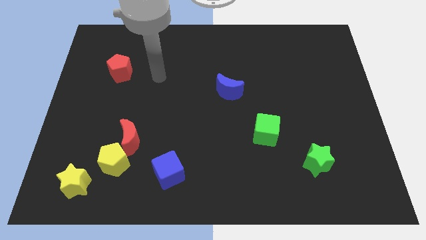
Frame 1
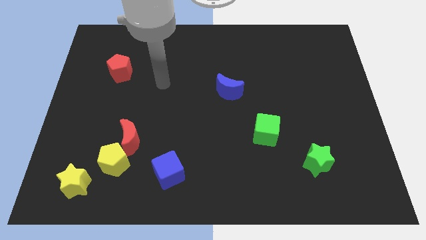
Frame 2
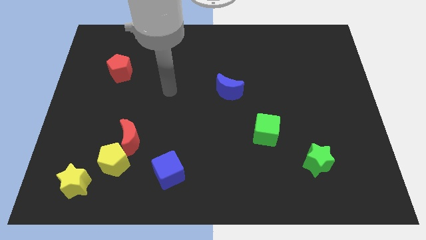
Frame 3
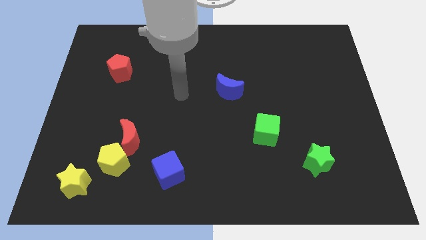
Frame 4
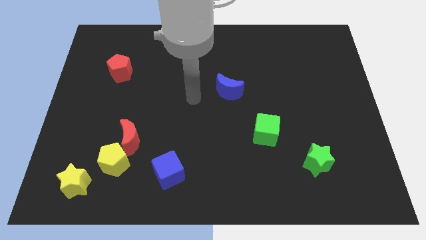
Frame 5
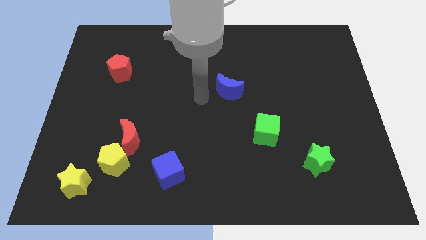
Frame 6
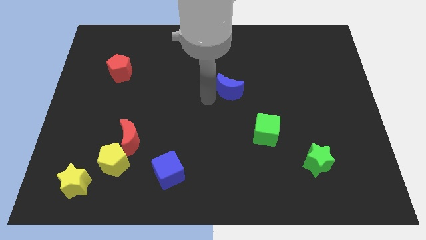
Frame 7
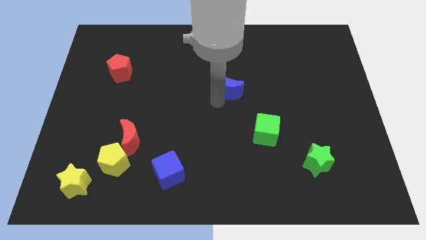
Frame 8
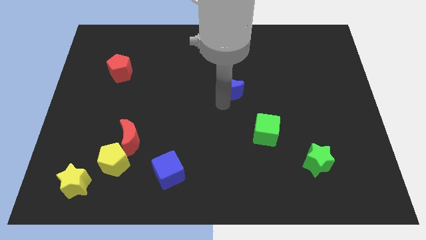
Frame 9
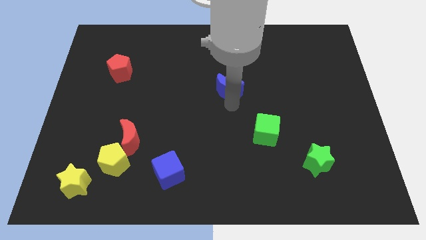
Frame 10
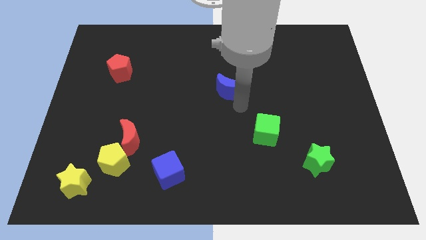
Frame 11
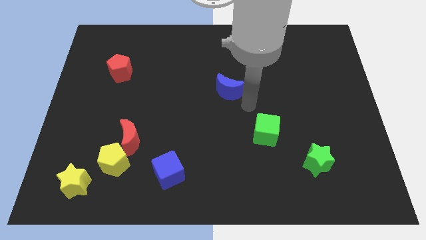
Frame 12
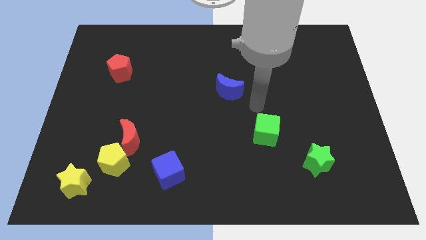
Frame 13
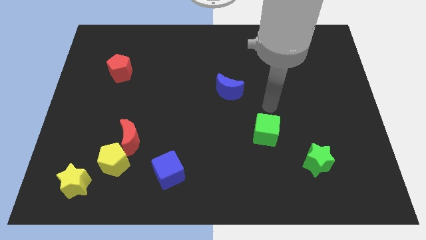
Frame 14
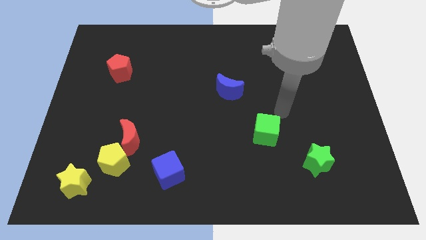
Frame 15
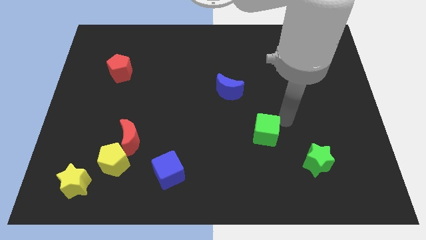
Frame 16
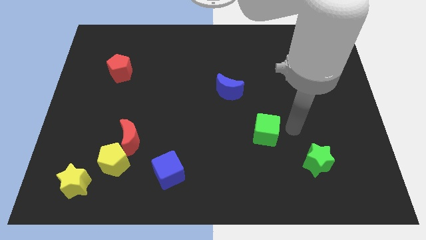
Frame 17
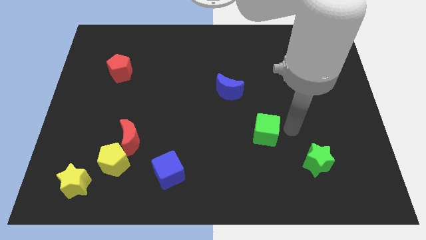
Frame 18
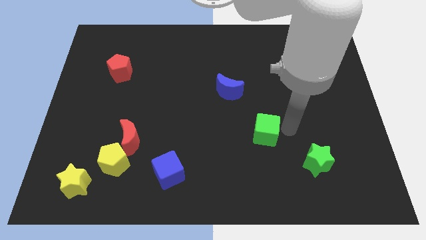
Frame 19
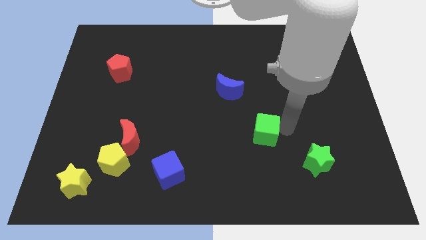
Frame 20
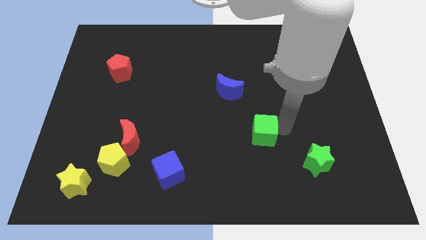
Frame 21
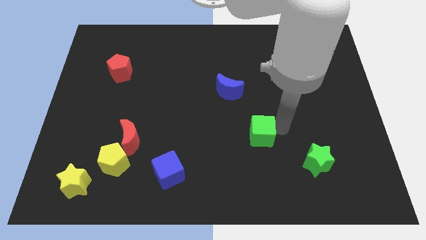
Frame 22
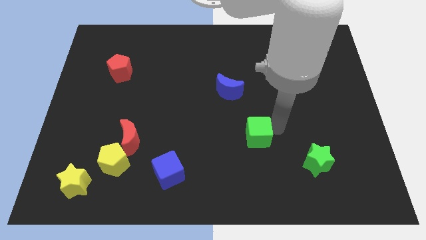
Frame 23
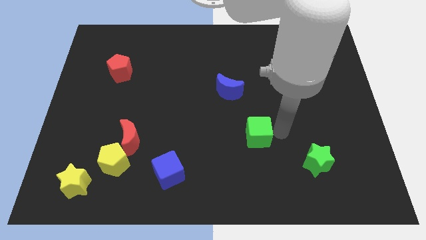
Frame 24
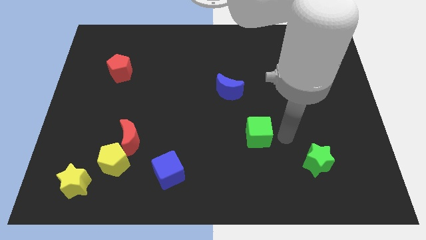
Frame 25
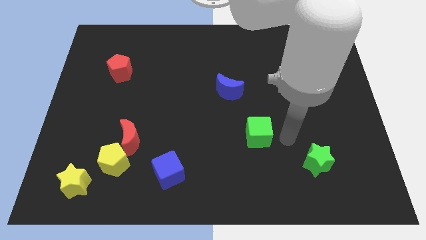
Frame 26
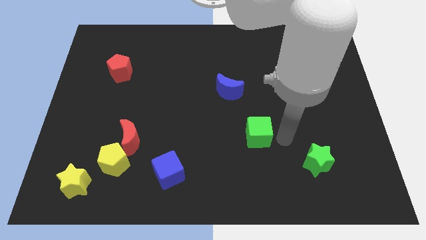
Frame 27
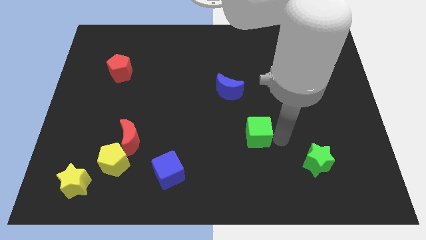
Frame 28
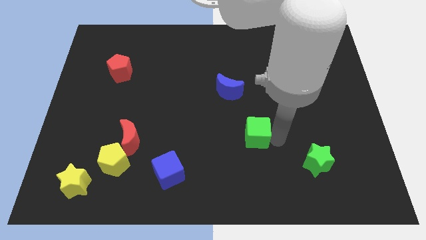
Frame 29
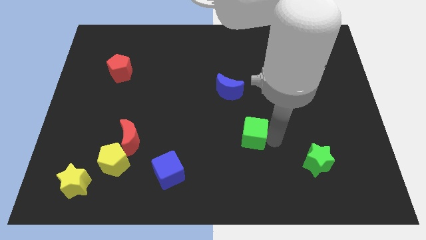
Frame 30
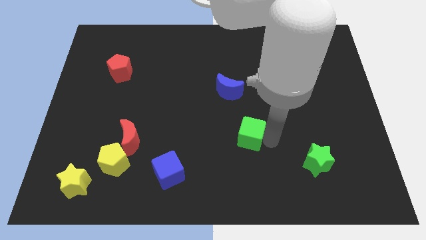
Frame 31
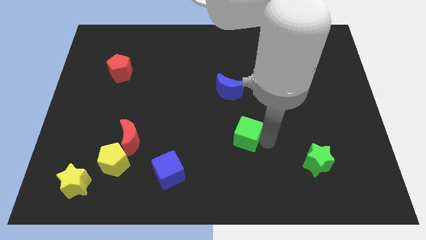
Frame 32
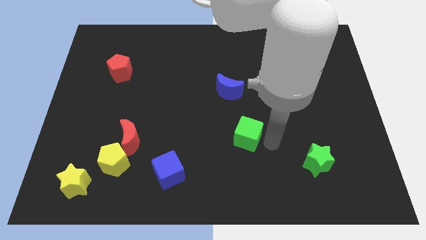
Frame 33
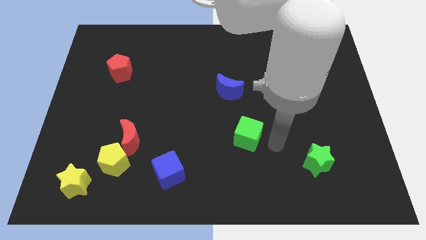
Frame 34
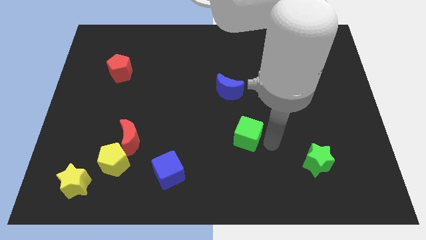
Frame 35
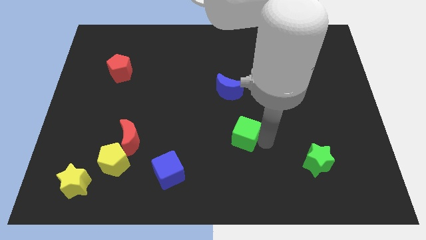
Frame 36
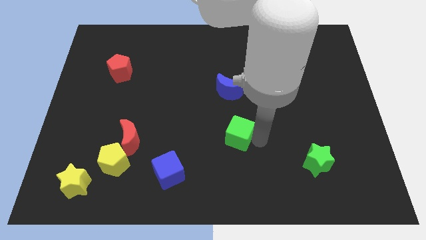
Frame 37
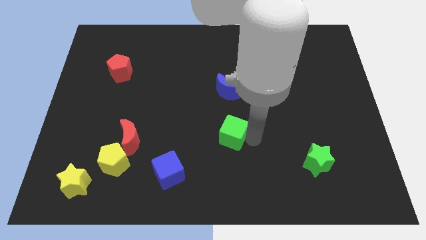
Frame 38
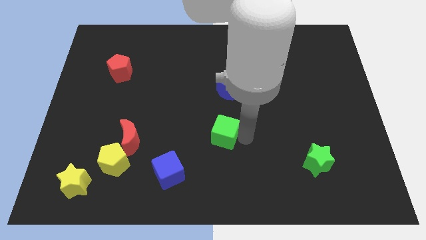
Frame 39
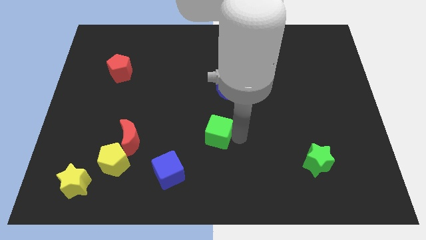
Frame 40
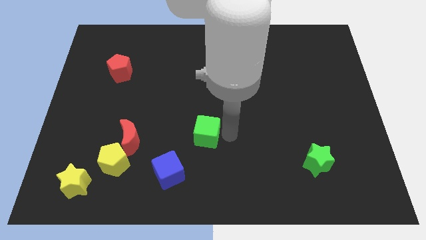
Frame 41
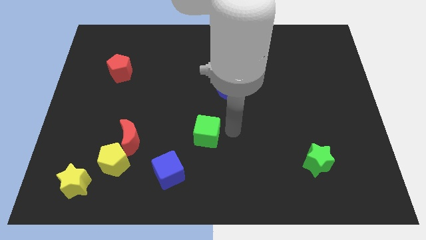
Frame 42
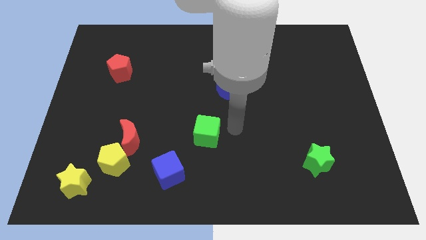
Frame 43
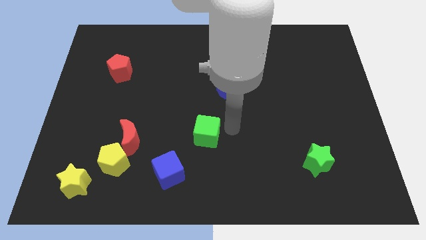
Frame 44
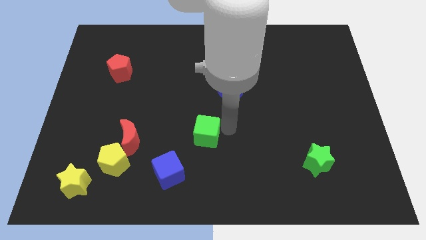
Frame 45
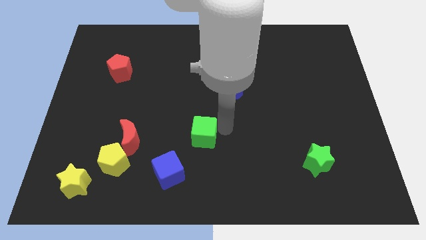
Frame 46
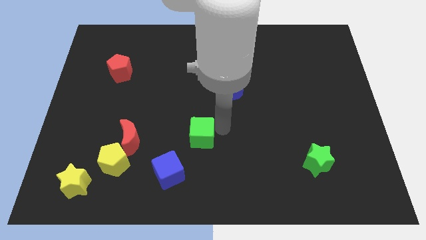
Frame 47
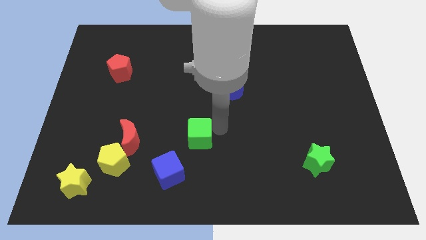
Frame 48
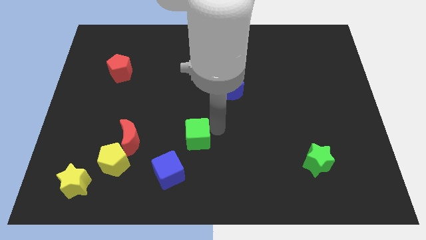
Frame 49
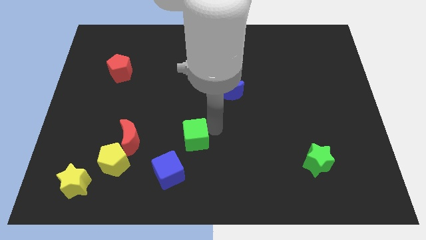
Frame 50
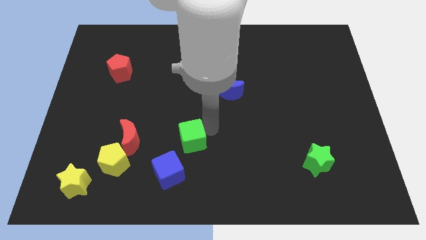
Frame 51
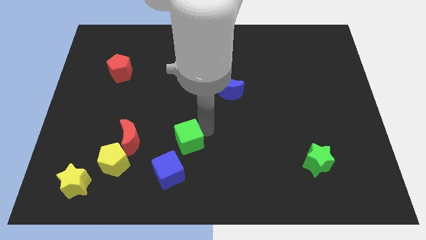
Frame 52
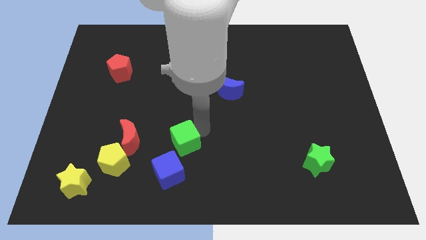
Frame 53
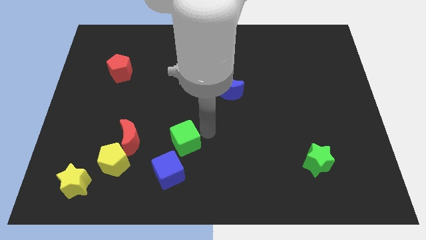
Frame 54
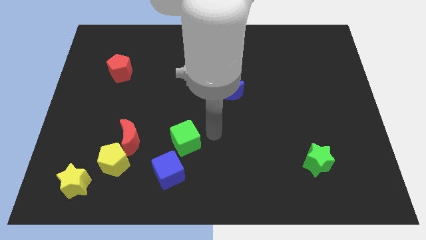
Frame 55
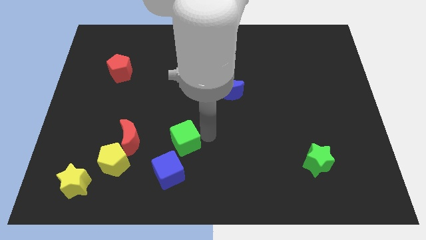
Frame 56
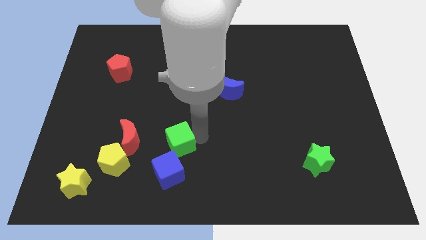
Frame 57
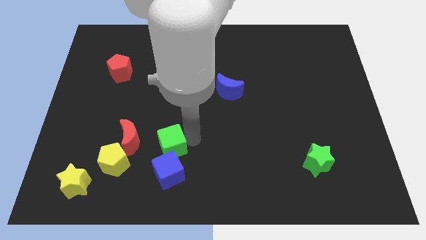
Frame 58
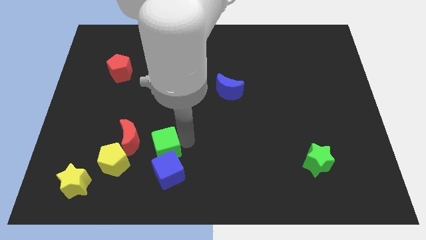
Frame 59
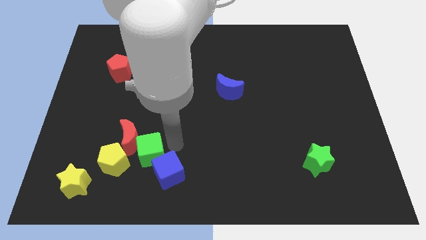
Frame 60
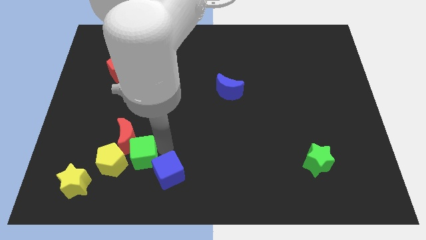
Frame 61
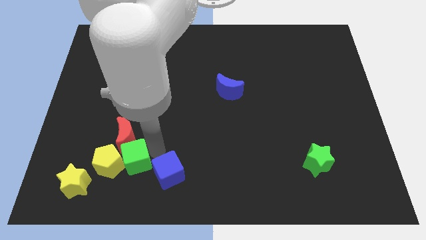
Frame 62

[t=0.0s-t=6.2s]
push the green cube to the yellow pentagon
